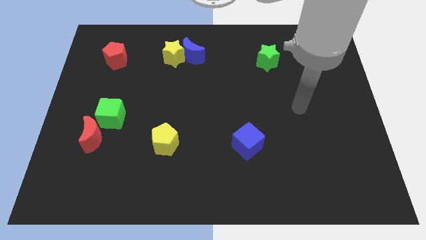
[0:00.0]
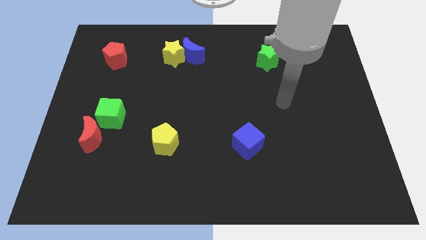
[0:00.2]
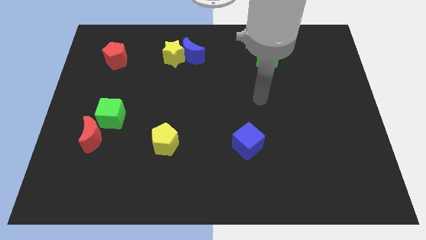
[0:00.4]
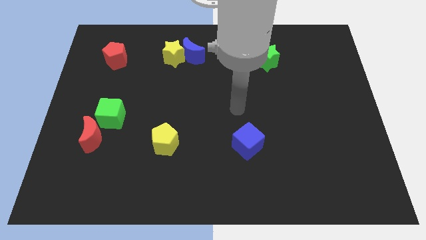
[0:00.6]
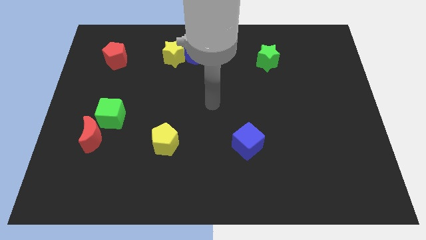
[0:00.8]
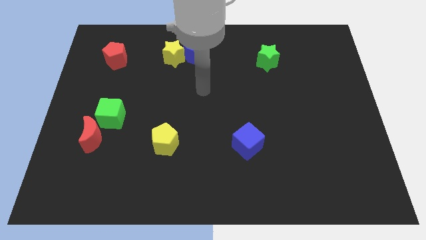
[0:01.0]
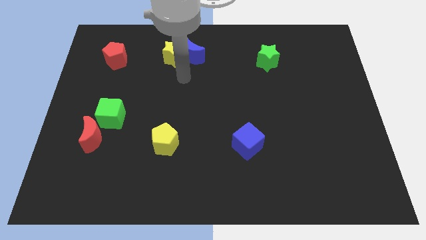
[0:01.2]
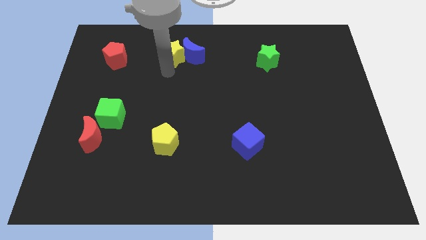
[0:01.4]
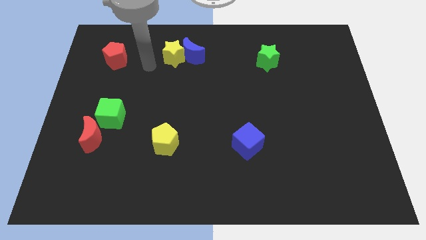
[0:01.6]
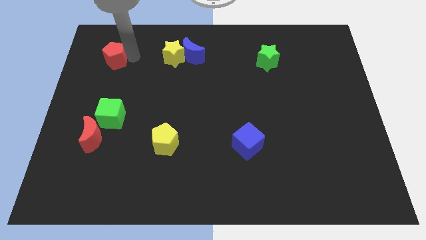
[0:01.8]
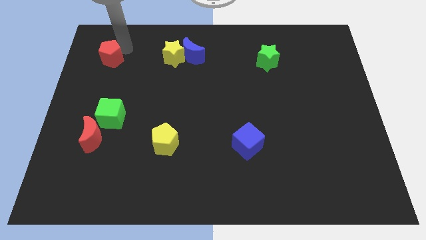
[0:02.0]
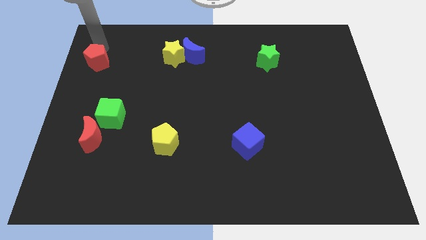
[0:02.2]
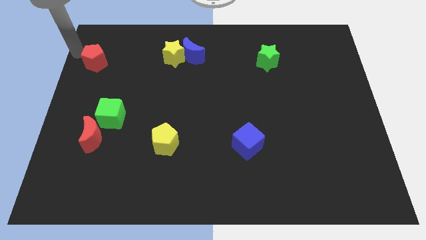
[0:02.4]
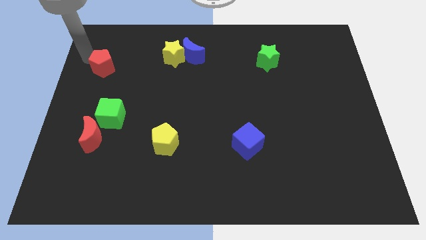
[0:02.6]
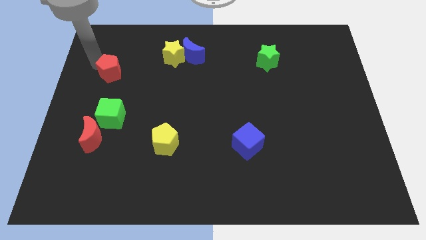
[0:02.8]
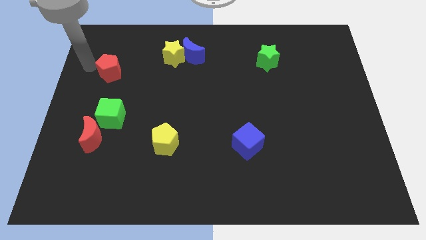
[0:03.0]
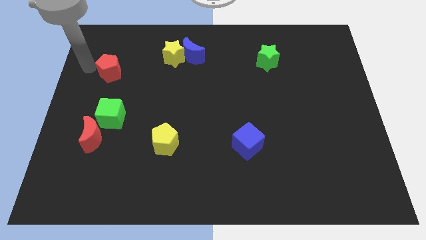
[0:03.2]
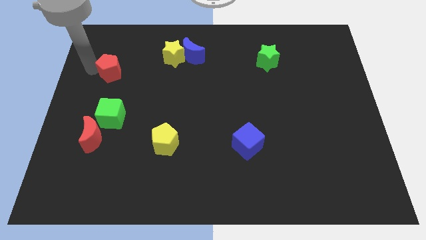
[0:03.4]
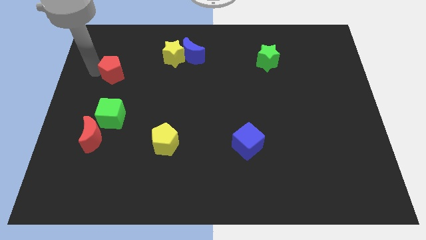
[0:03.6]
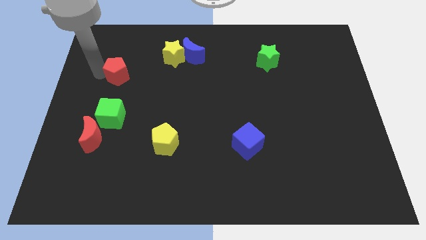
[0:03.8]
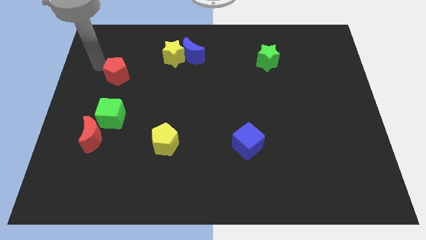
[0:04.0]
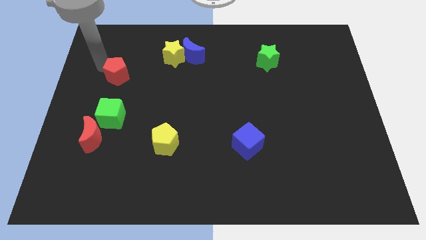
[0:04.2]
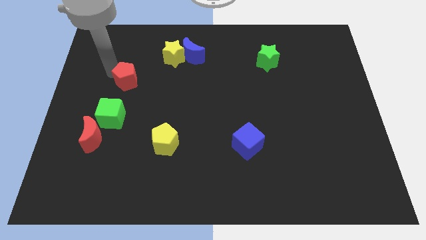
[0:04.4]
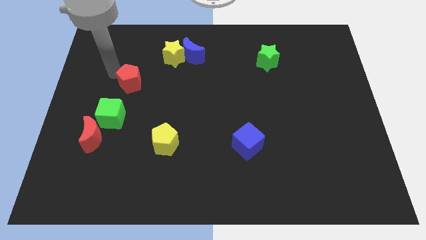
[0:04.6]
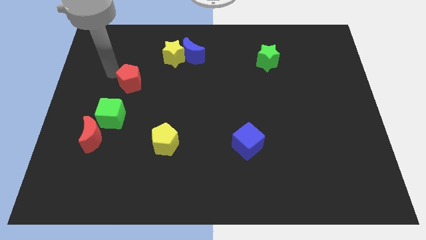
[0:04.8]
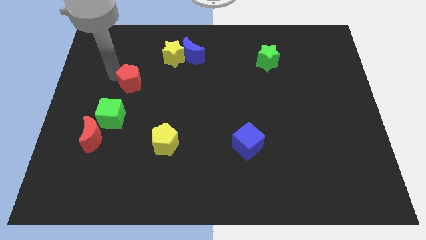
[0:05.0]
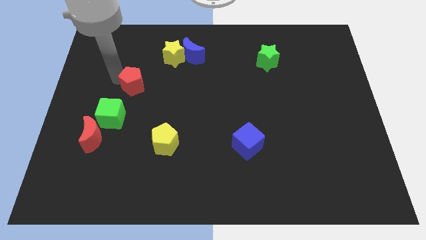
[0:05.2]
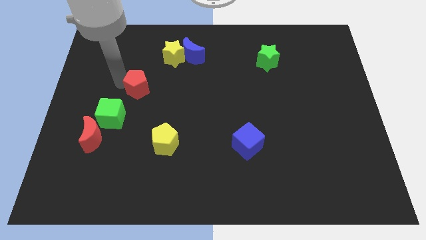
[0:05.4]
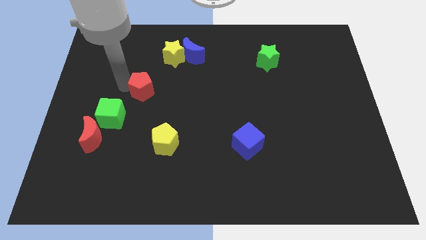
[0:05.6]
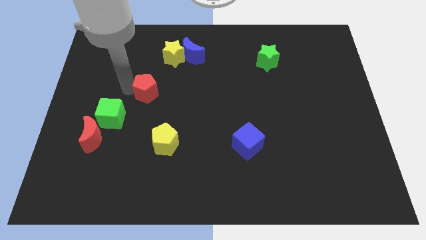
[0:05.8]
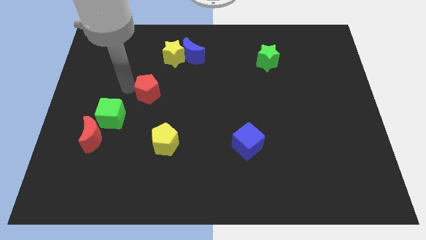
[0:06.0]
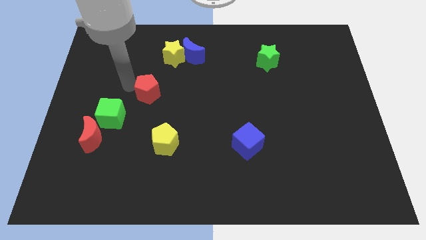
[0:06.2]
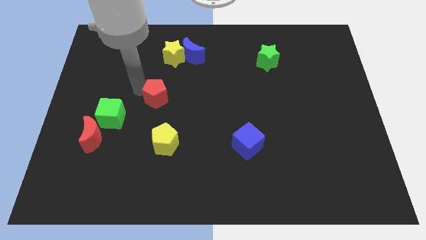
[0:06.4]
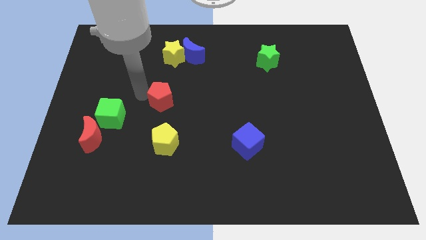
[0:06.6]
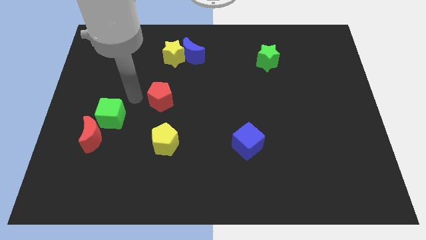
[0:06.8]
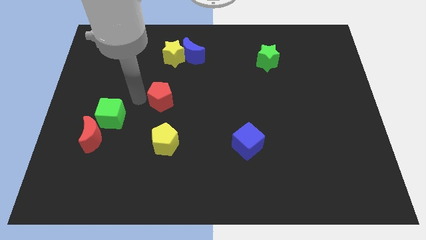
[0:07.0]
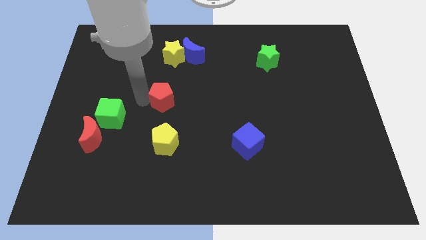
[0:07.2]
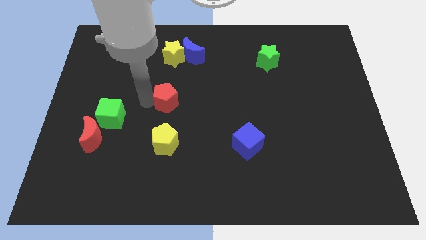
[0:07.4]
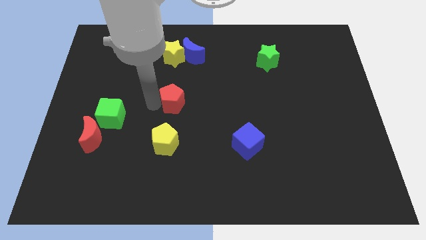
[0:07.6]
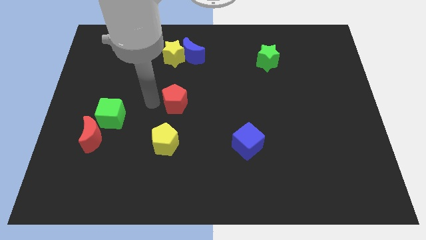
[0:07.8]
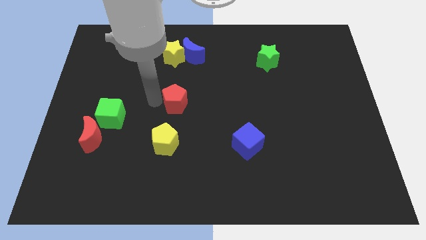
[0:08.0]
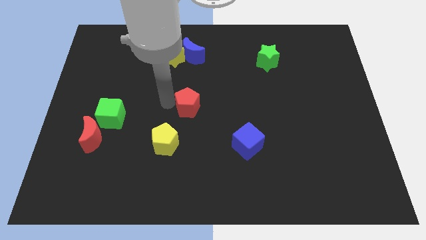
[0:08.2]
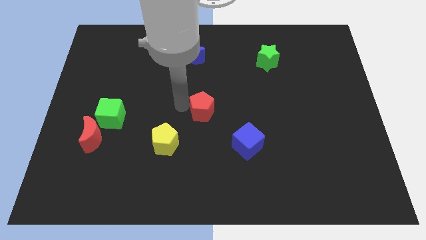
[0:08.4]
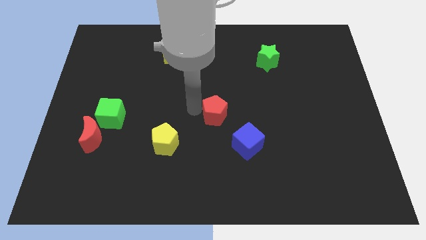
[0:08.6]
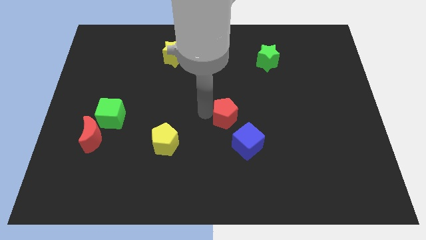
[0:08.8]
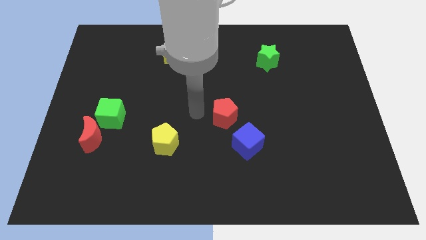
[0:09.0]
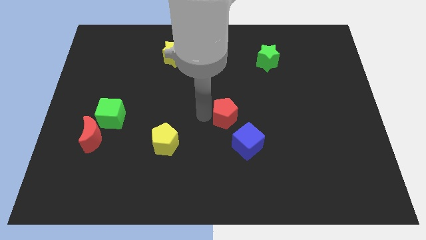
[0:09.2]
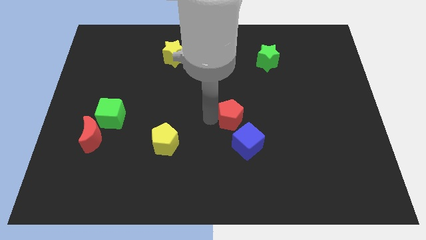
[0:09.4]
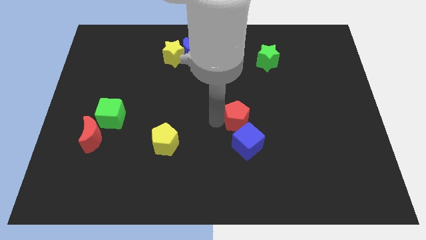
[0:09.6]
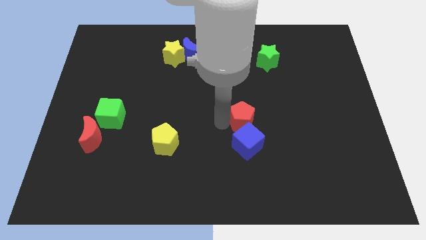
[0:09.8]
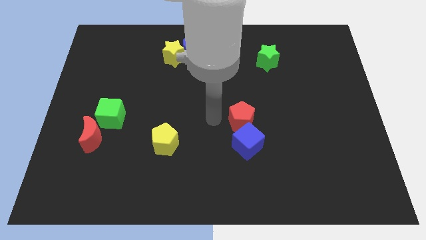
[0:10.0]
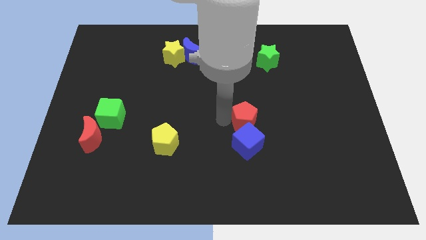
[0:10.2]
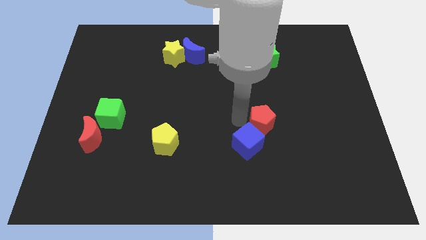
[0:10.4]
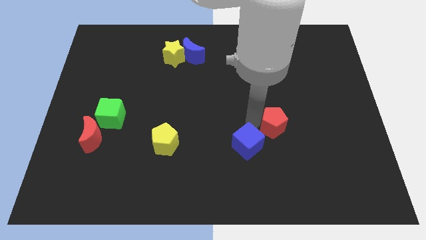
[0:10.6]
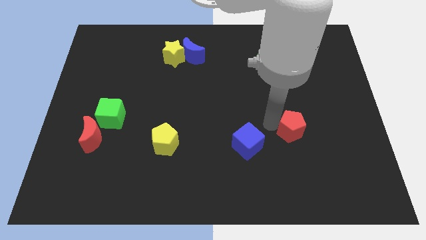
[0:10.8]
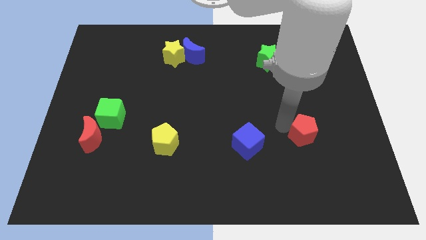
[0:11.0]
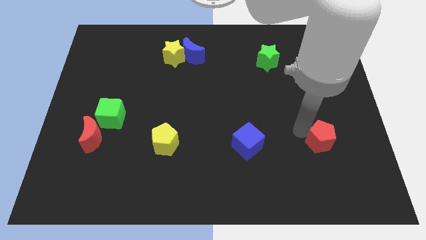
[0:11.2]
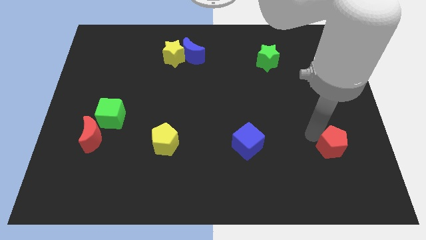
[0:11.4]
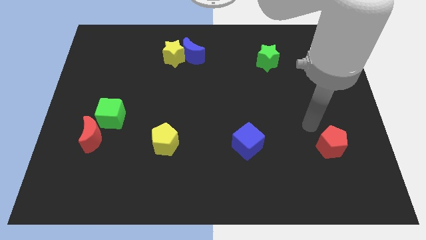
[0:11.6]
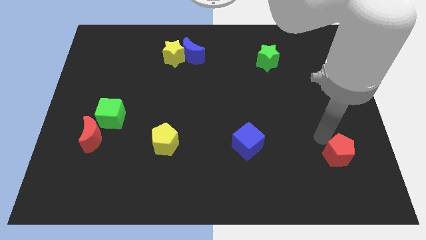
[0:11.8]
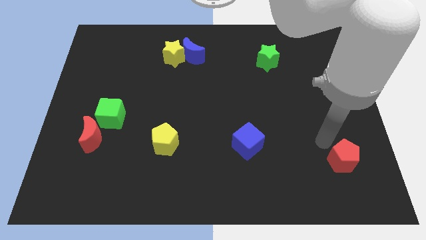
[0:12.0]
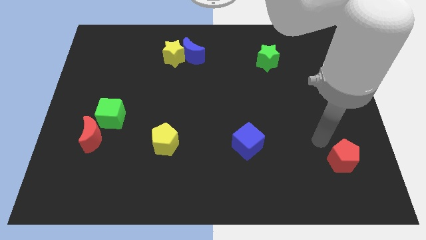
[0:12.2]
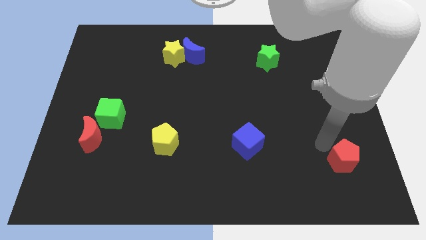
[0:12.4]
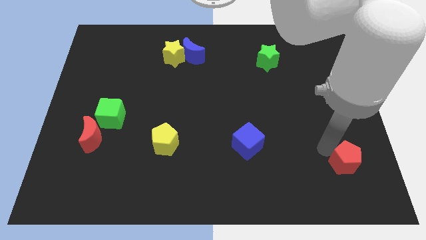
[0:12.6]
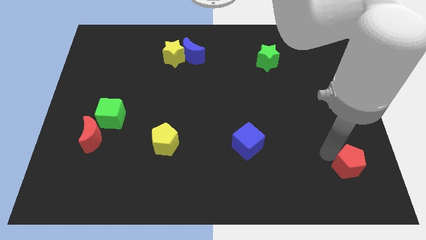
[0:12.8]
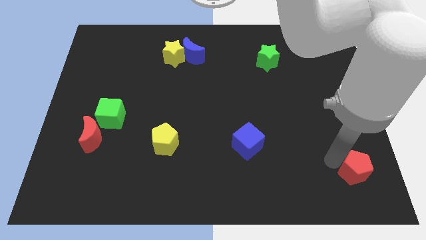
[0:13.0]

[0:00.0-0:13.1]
push the red pentagon to the bottom right
